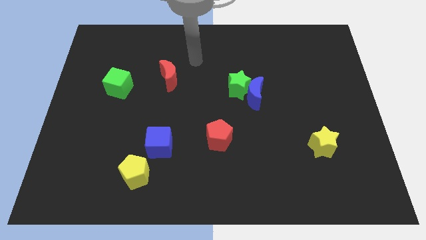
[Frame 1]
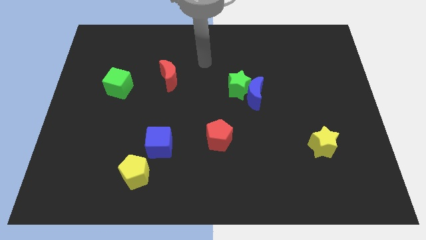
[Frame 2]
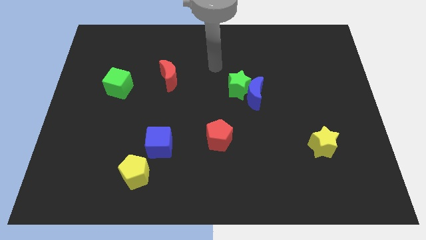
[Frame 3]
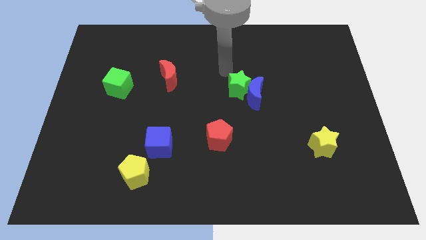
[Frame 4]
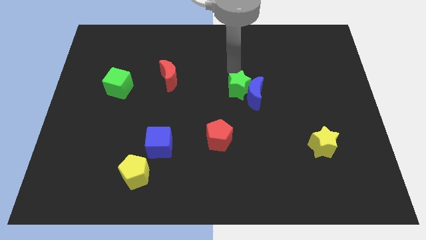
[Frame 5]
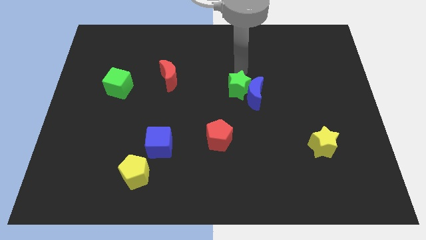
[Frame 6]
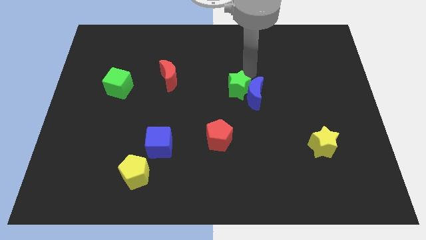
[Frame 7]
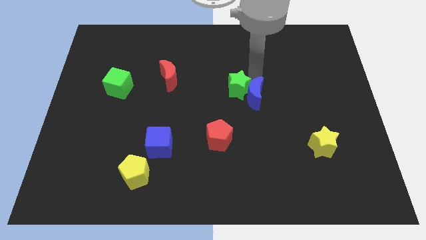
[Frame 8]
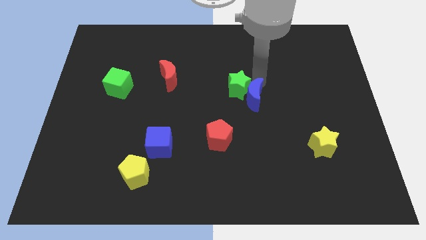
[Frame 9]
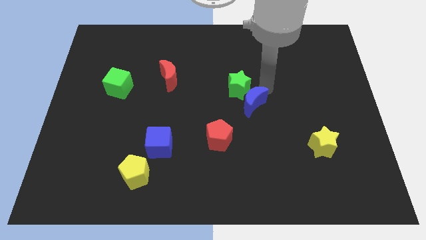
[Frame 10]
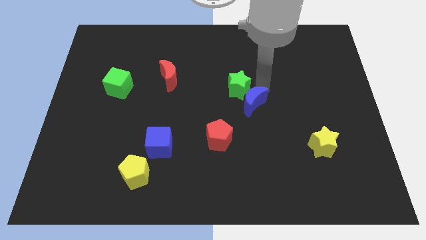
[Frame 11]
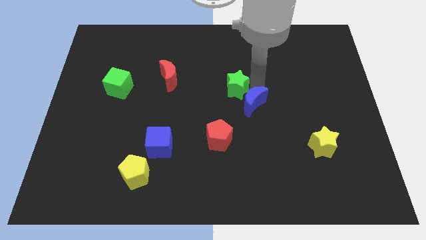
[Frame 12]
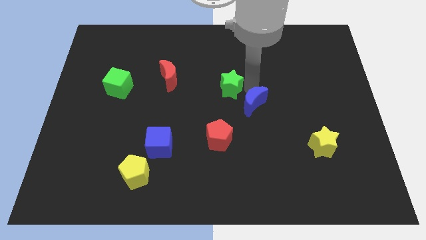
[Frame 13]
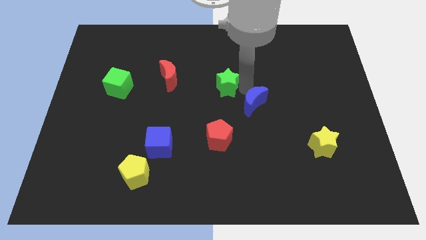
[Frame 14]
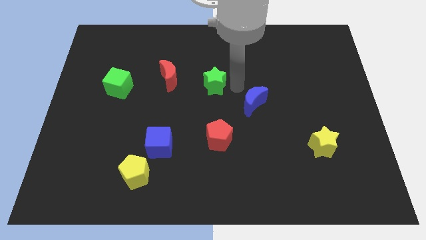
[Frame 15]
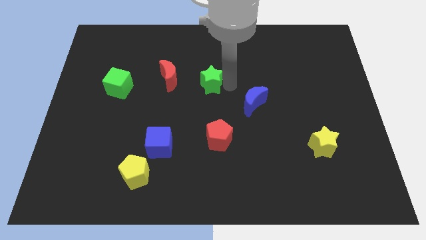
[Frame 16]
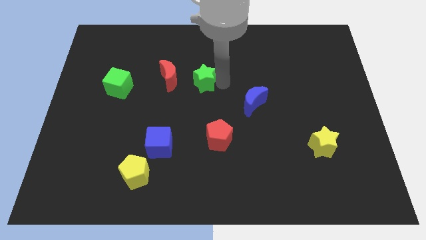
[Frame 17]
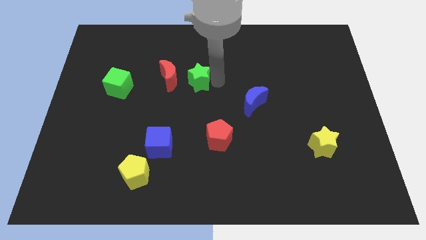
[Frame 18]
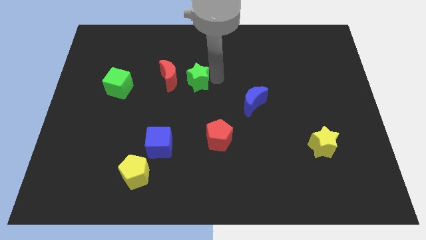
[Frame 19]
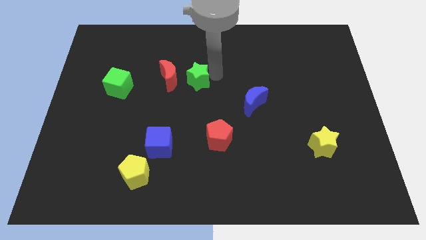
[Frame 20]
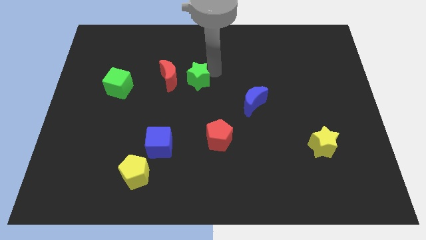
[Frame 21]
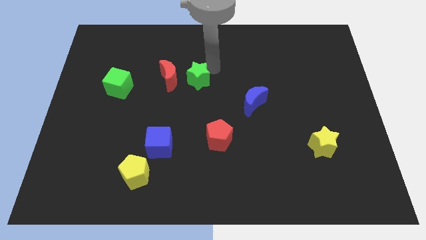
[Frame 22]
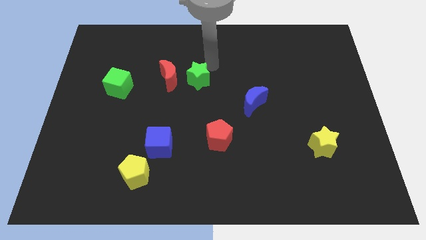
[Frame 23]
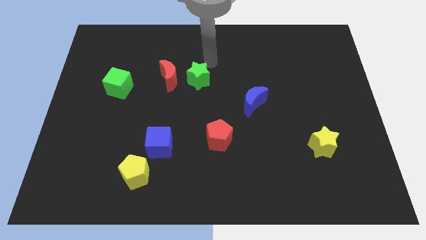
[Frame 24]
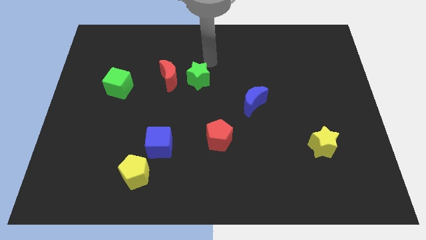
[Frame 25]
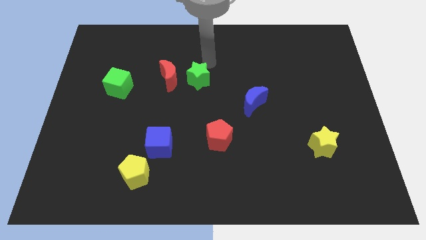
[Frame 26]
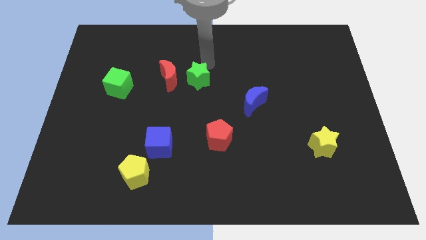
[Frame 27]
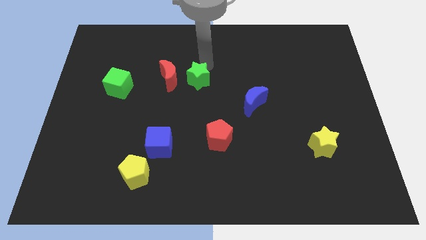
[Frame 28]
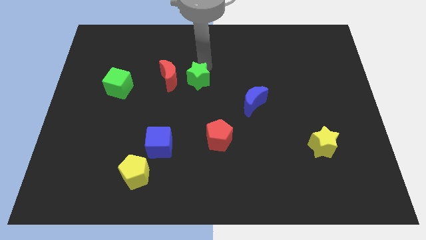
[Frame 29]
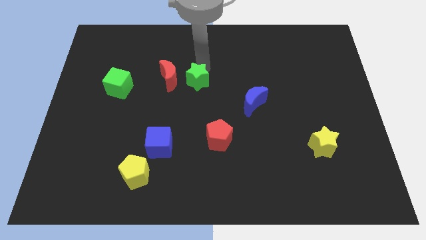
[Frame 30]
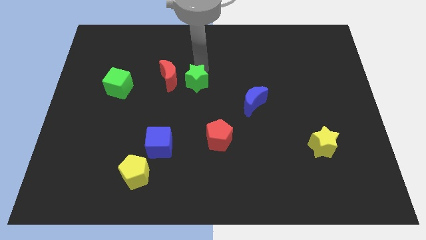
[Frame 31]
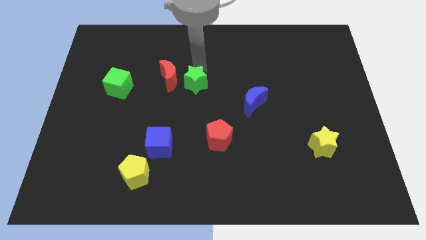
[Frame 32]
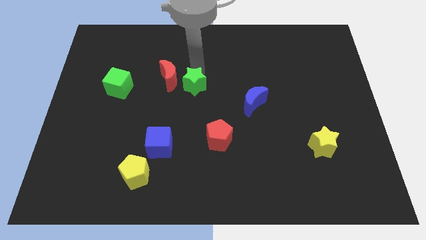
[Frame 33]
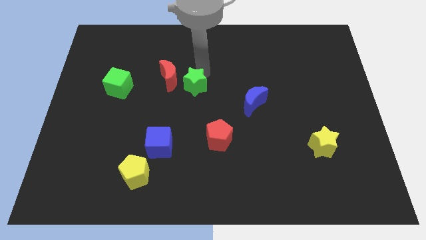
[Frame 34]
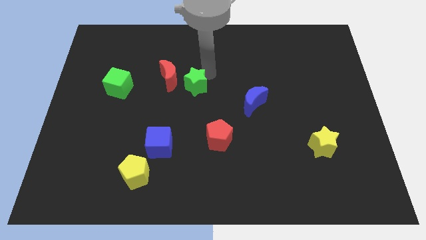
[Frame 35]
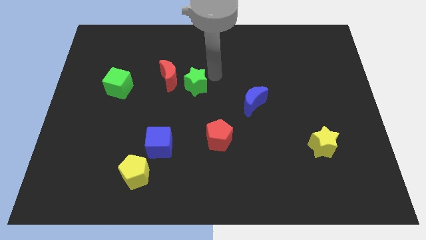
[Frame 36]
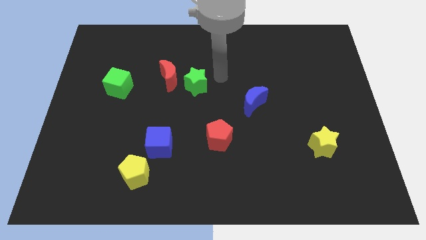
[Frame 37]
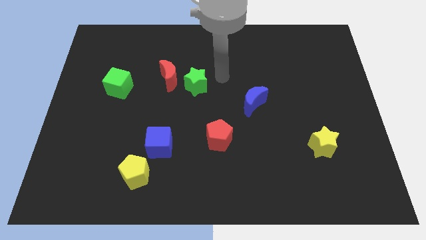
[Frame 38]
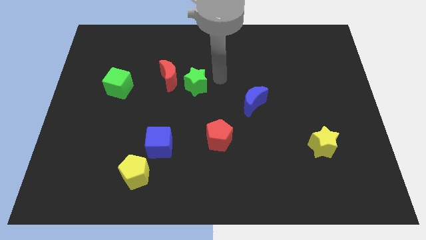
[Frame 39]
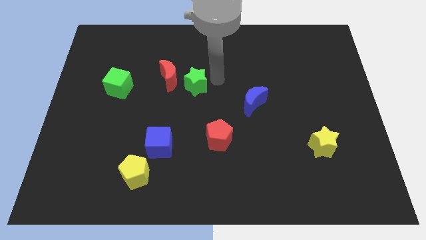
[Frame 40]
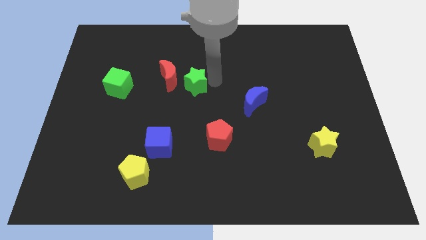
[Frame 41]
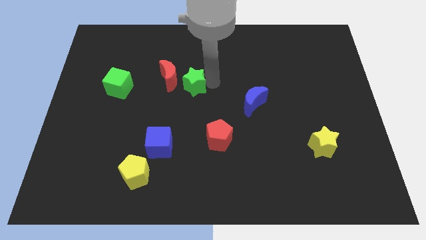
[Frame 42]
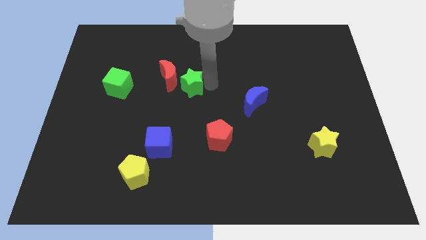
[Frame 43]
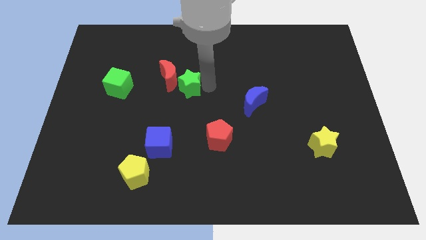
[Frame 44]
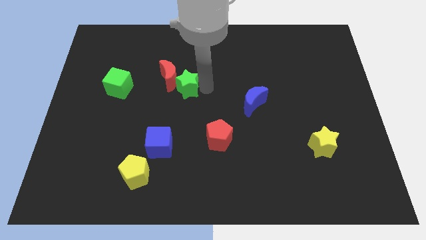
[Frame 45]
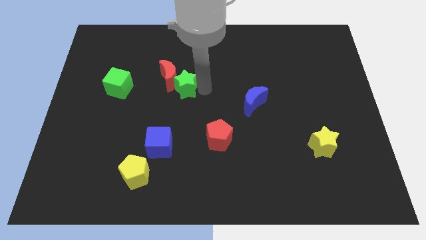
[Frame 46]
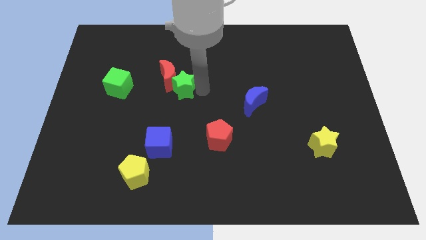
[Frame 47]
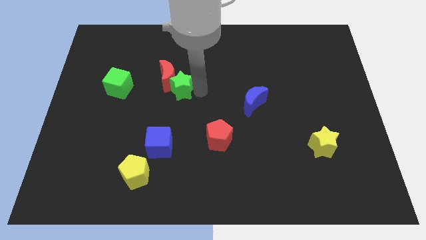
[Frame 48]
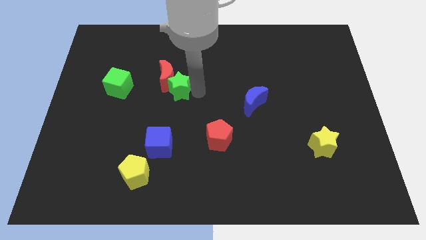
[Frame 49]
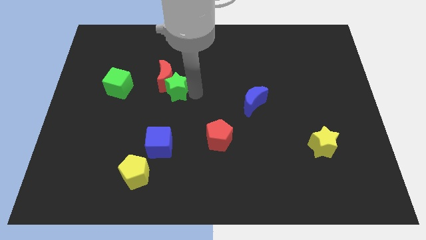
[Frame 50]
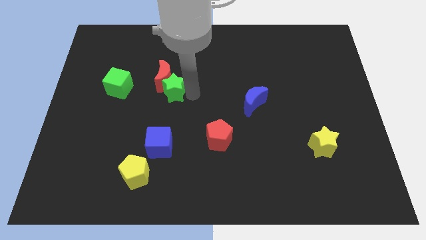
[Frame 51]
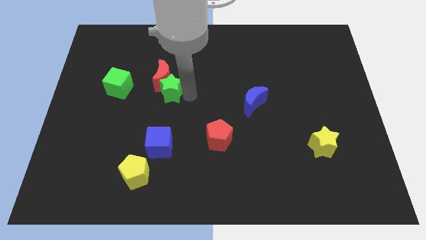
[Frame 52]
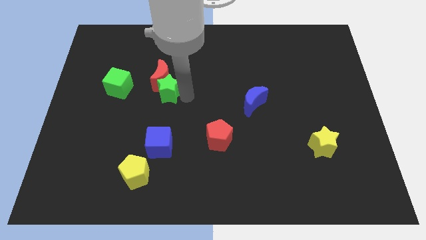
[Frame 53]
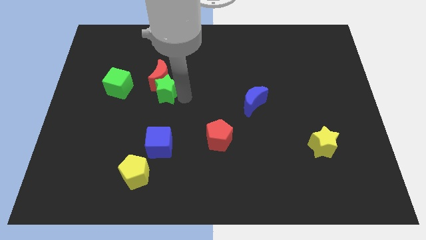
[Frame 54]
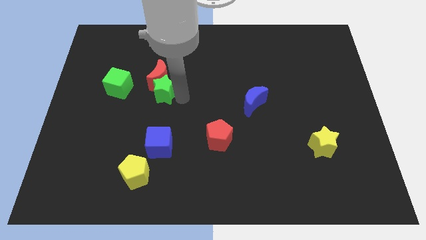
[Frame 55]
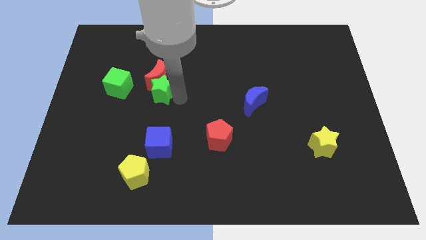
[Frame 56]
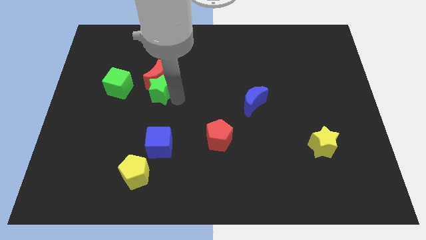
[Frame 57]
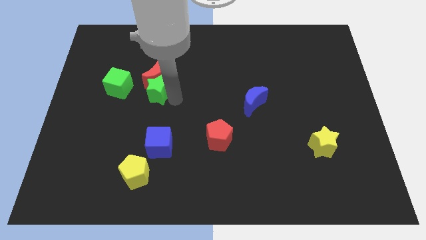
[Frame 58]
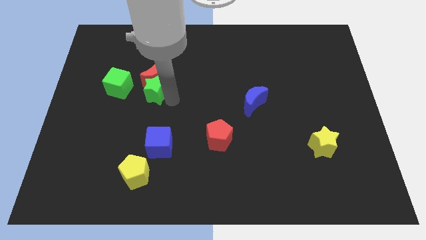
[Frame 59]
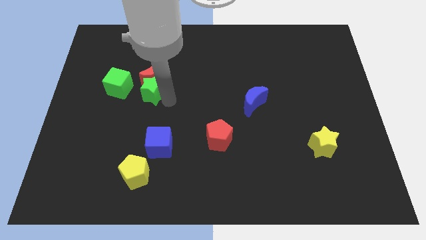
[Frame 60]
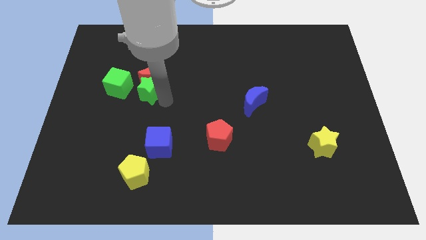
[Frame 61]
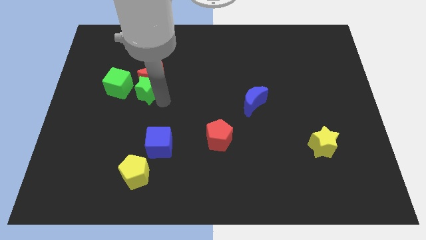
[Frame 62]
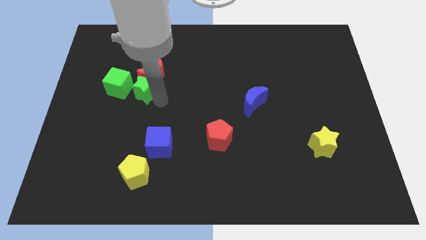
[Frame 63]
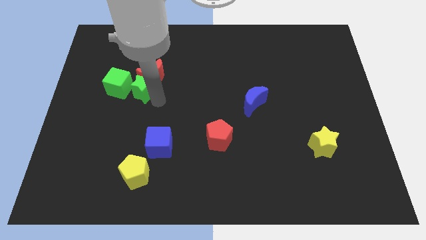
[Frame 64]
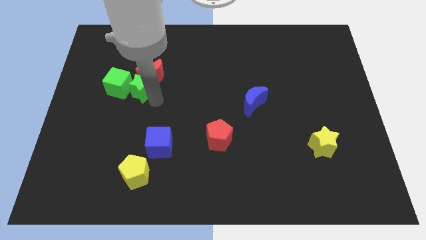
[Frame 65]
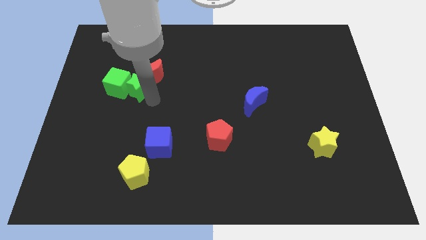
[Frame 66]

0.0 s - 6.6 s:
move the green star towards the green cube

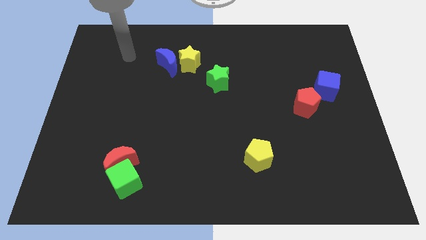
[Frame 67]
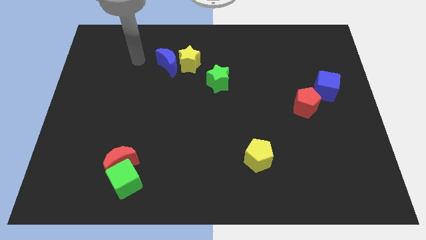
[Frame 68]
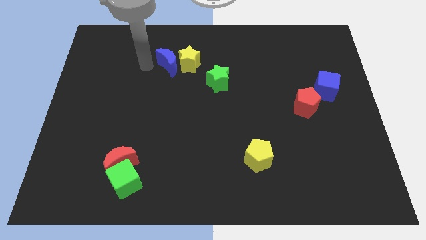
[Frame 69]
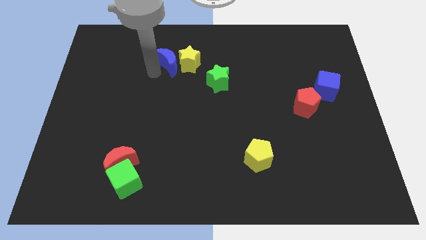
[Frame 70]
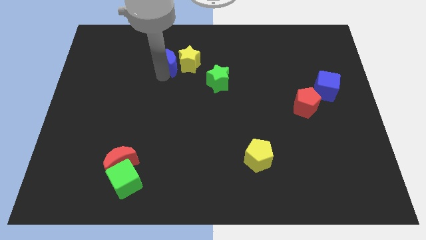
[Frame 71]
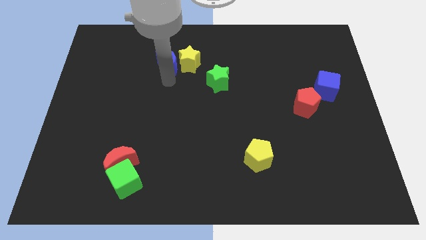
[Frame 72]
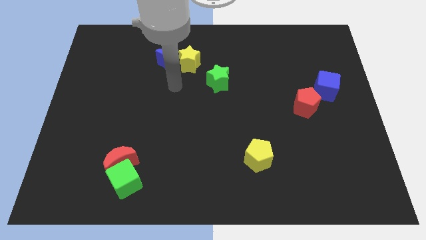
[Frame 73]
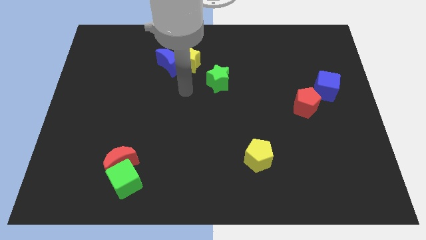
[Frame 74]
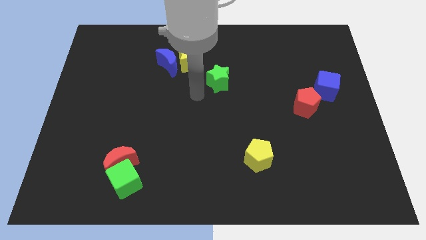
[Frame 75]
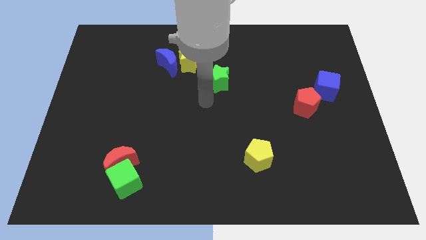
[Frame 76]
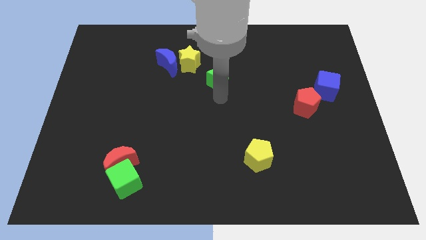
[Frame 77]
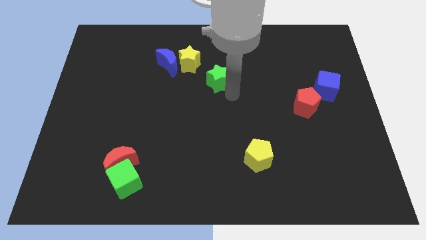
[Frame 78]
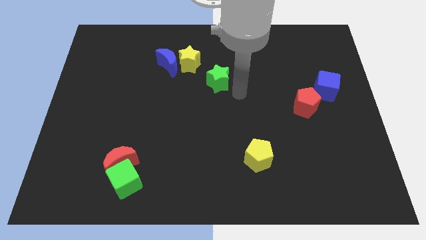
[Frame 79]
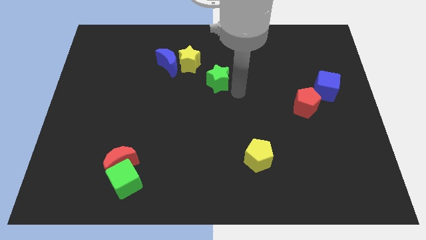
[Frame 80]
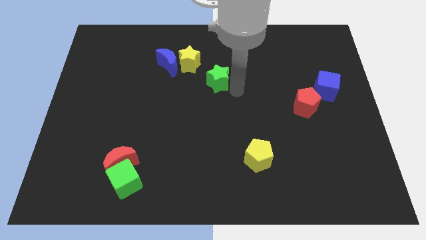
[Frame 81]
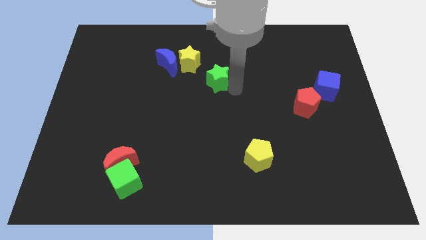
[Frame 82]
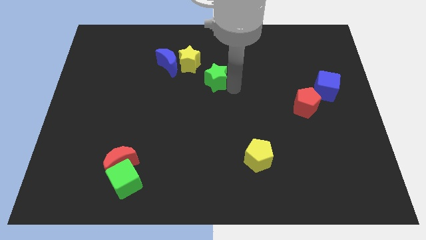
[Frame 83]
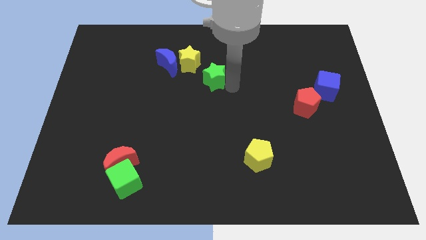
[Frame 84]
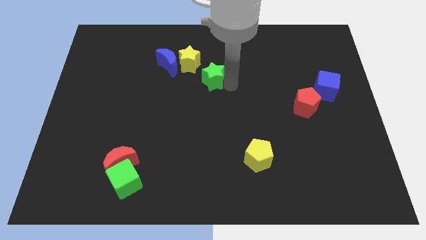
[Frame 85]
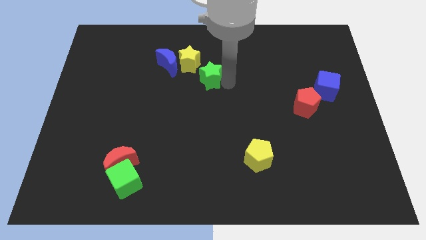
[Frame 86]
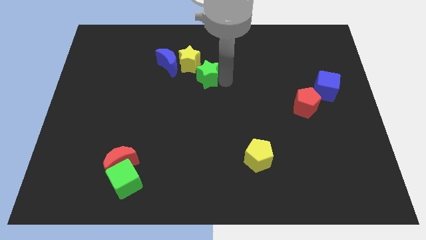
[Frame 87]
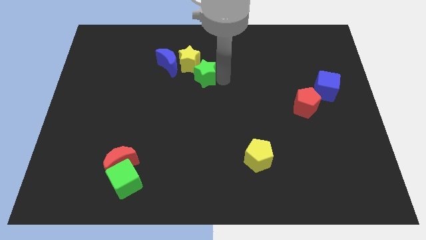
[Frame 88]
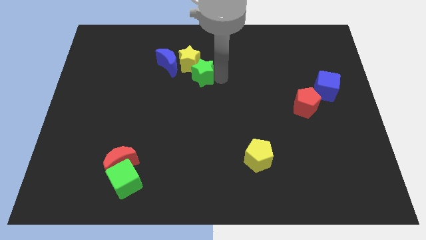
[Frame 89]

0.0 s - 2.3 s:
put the green star to the yellow star
